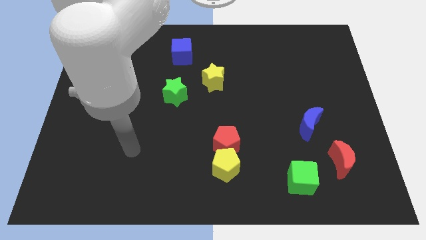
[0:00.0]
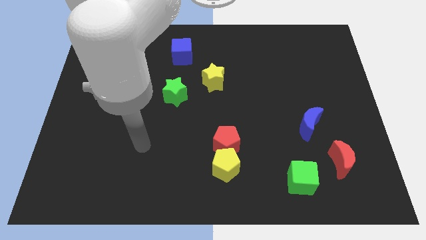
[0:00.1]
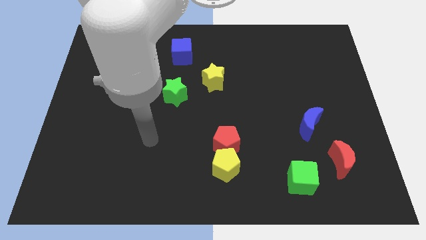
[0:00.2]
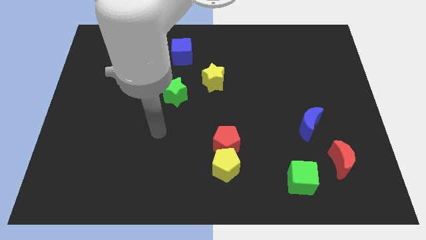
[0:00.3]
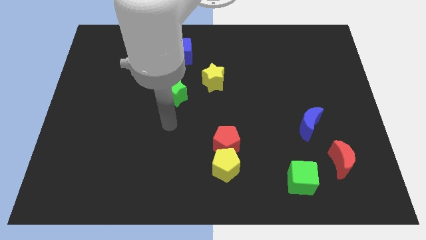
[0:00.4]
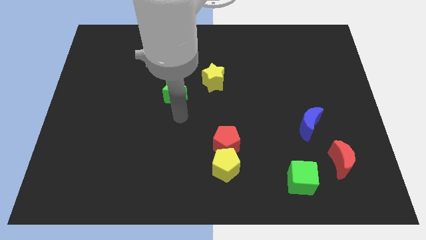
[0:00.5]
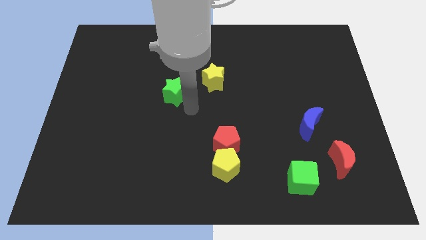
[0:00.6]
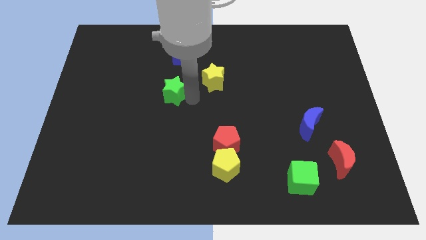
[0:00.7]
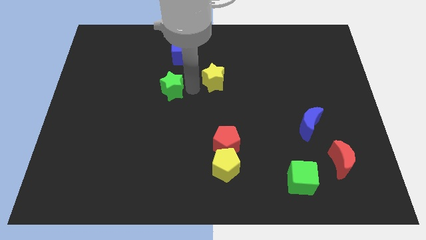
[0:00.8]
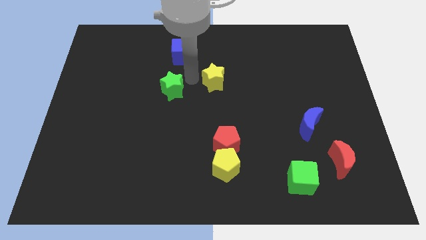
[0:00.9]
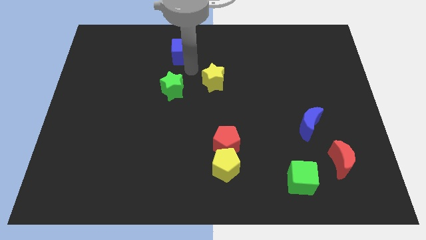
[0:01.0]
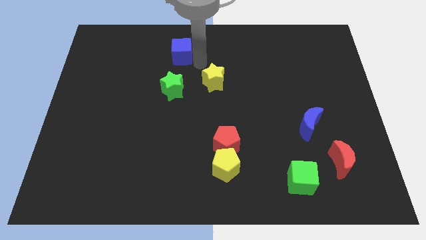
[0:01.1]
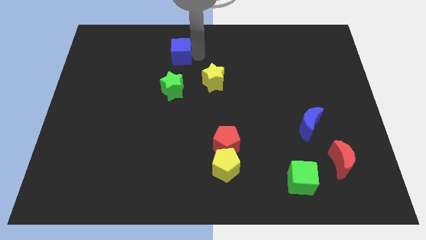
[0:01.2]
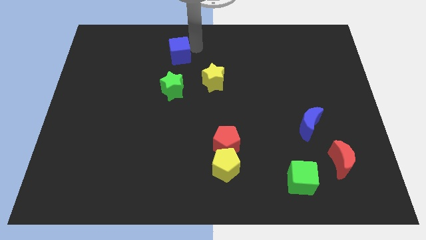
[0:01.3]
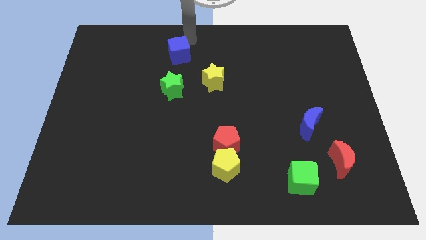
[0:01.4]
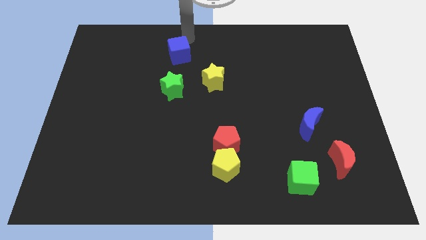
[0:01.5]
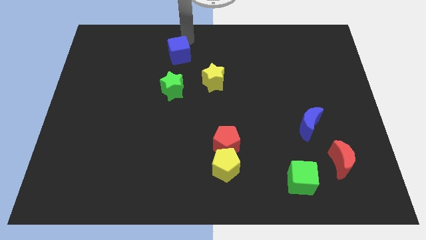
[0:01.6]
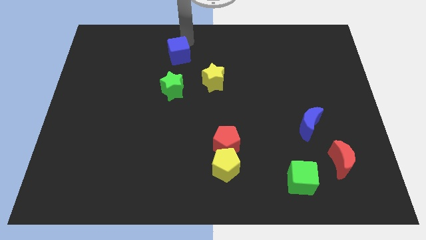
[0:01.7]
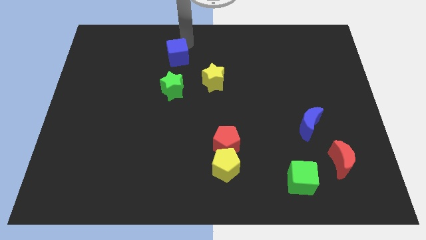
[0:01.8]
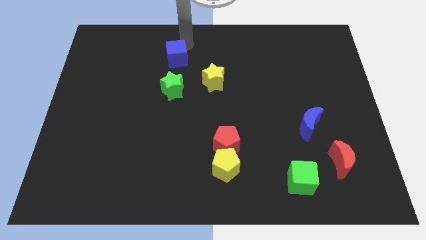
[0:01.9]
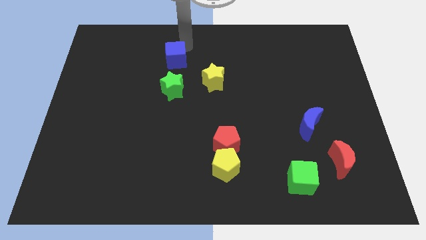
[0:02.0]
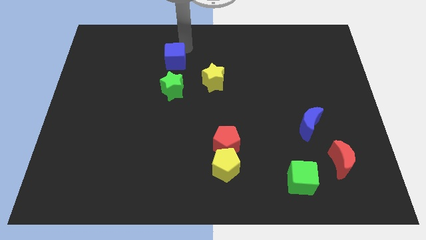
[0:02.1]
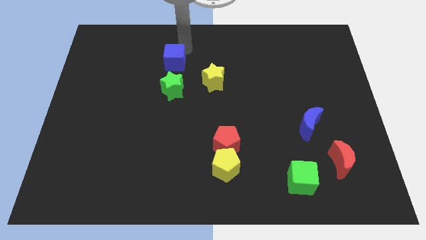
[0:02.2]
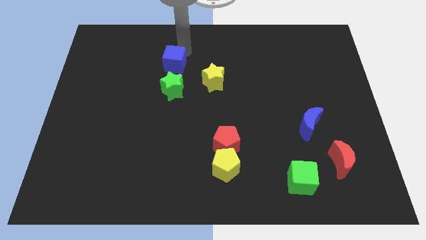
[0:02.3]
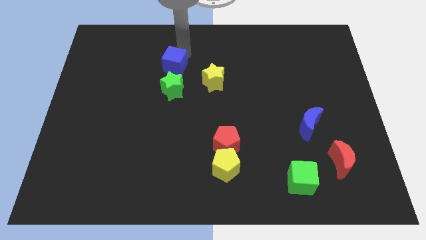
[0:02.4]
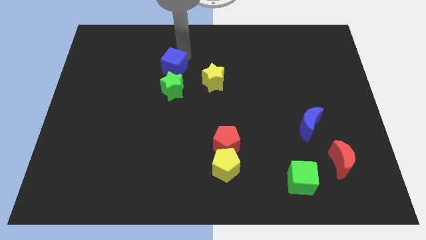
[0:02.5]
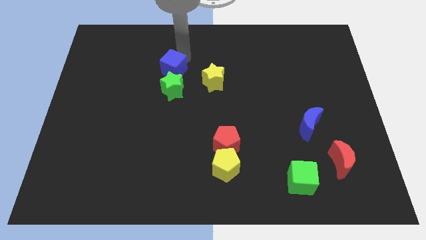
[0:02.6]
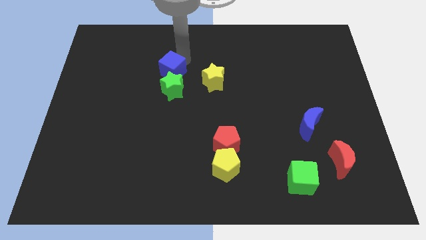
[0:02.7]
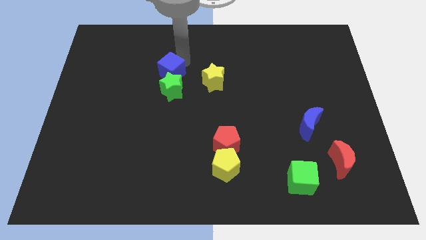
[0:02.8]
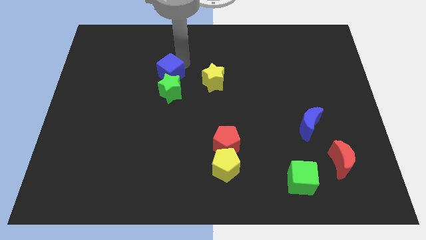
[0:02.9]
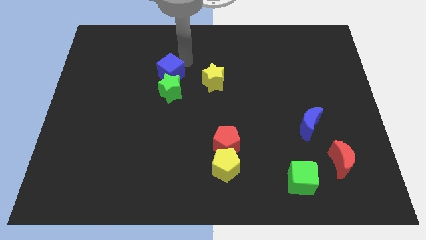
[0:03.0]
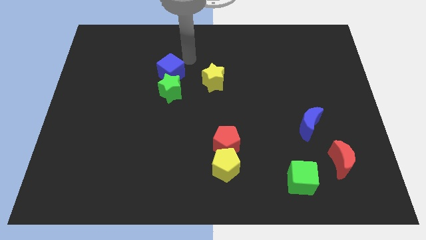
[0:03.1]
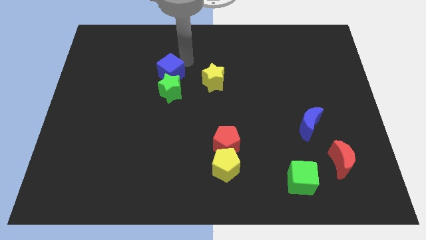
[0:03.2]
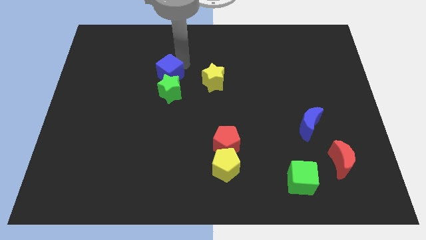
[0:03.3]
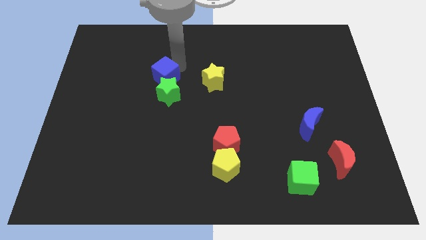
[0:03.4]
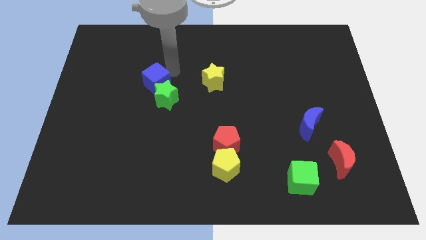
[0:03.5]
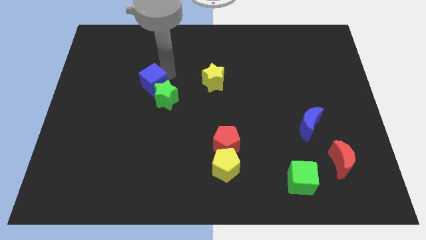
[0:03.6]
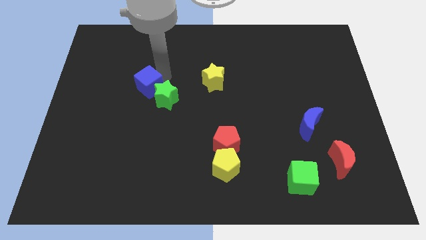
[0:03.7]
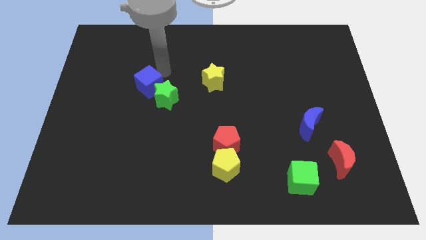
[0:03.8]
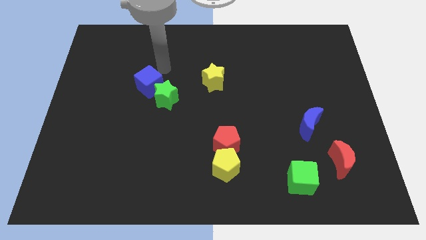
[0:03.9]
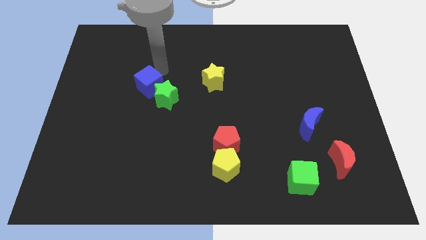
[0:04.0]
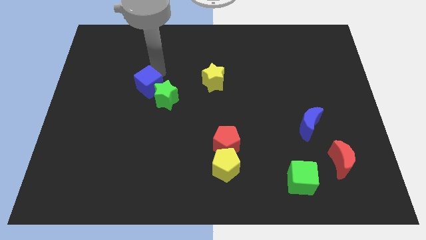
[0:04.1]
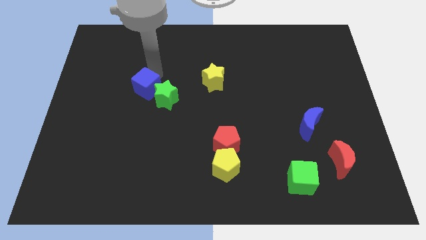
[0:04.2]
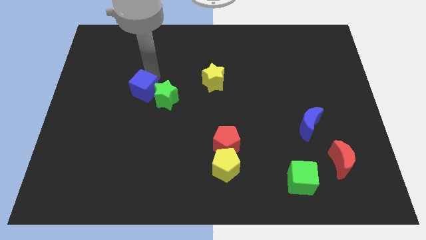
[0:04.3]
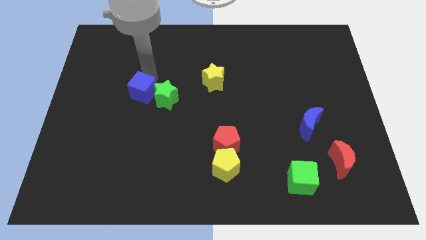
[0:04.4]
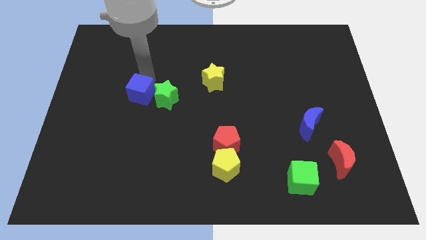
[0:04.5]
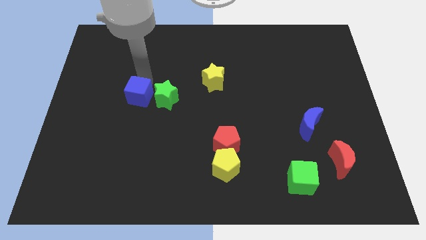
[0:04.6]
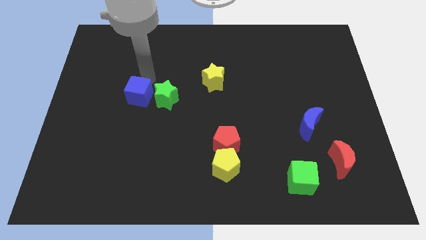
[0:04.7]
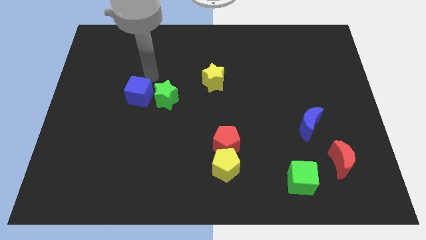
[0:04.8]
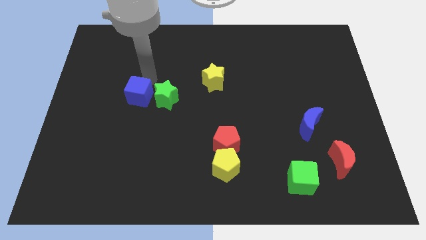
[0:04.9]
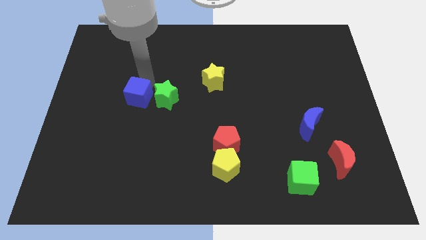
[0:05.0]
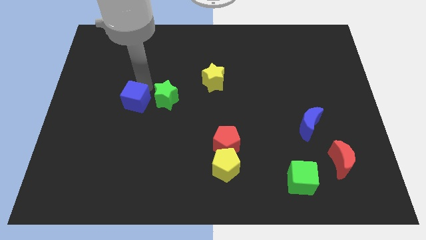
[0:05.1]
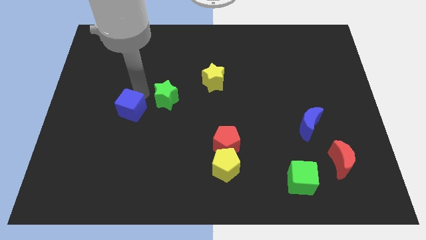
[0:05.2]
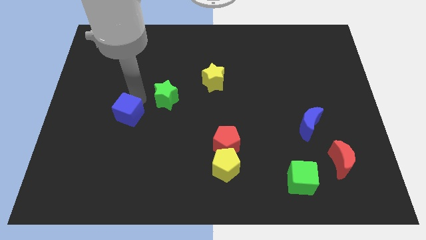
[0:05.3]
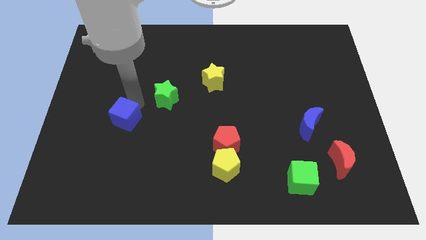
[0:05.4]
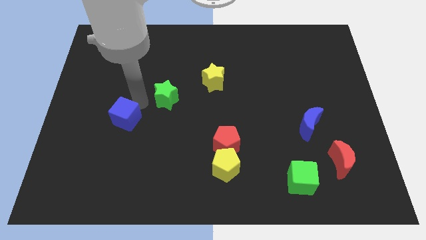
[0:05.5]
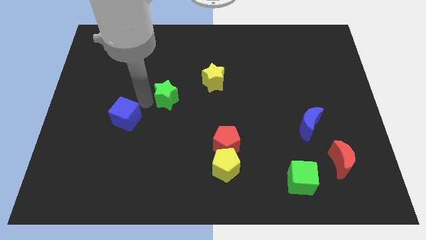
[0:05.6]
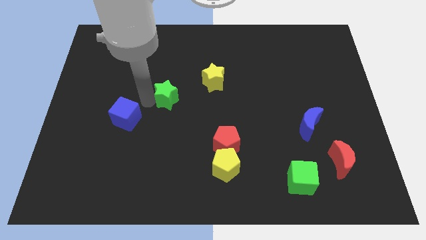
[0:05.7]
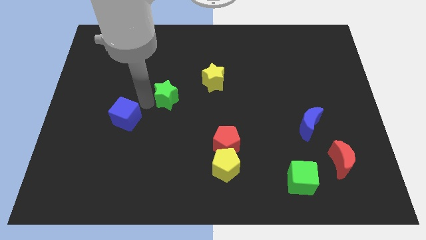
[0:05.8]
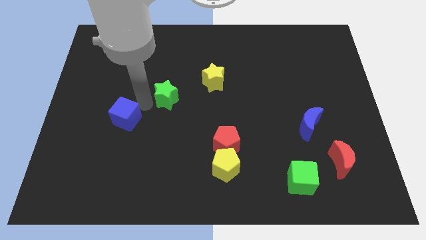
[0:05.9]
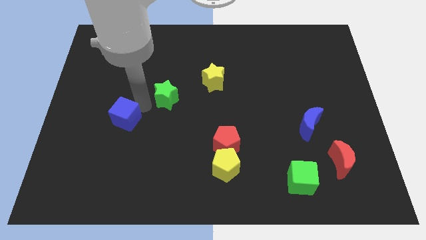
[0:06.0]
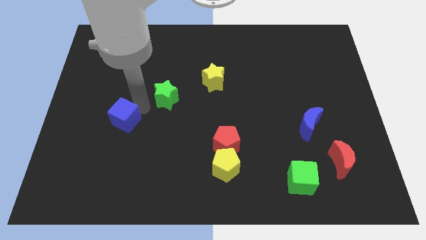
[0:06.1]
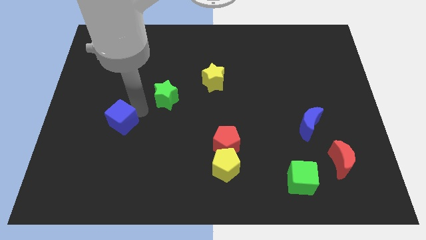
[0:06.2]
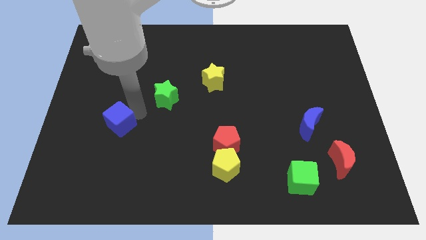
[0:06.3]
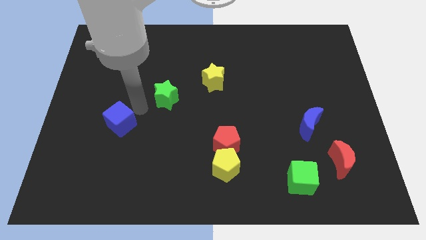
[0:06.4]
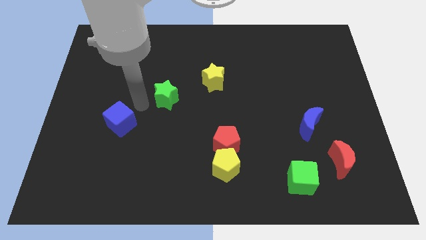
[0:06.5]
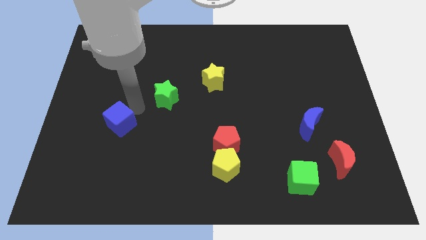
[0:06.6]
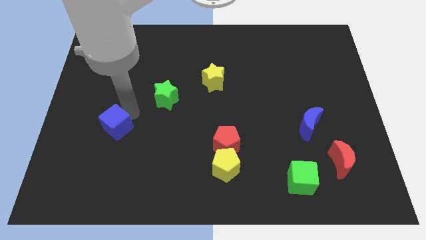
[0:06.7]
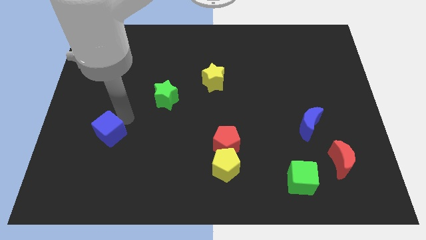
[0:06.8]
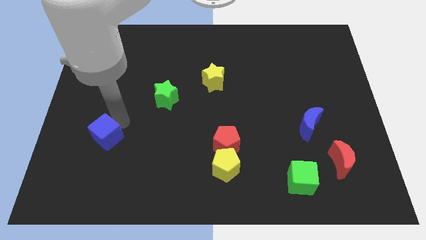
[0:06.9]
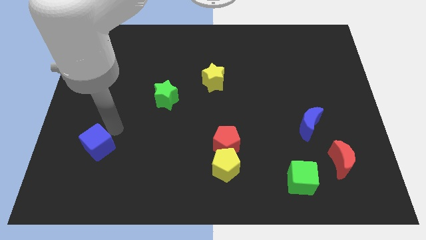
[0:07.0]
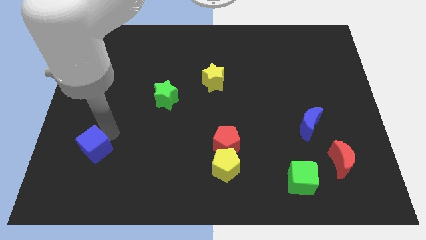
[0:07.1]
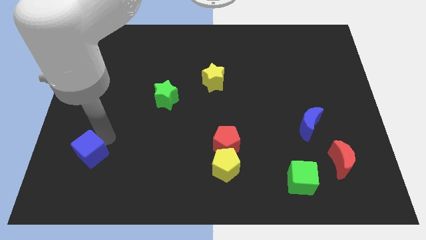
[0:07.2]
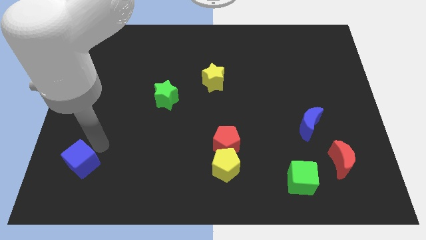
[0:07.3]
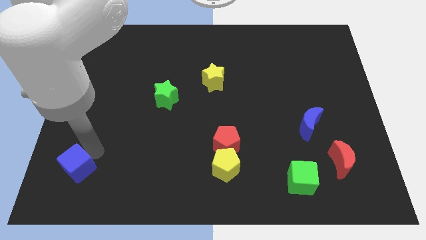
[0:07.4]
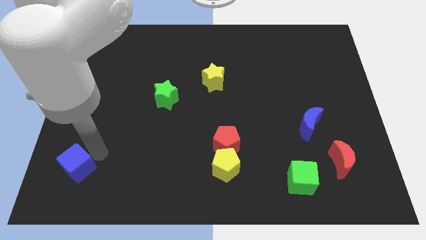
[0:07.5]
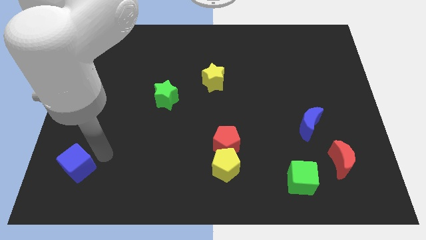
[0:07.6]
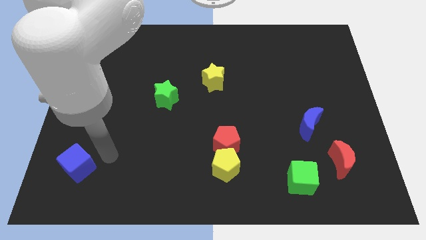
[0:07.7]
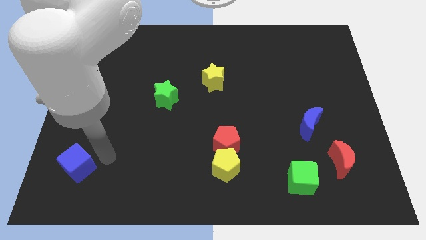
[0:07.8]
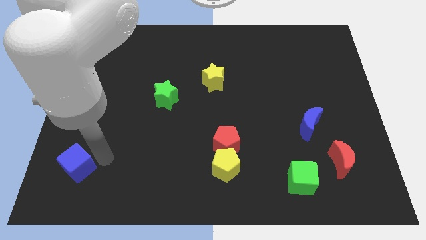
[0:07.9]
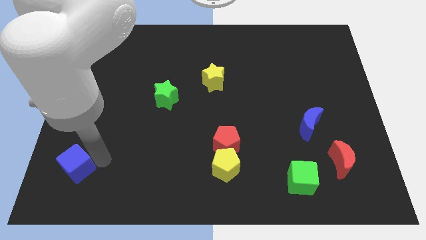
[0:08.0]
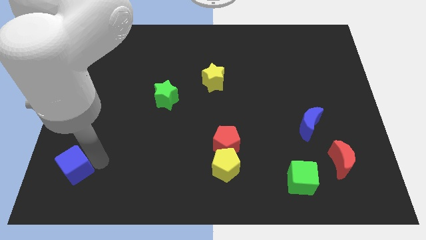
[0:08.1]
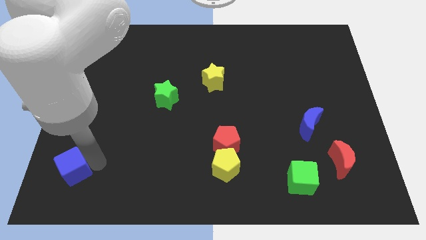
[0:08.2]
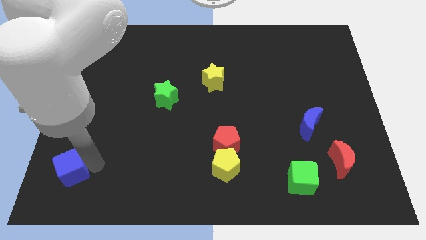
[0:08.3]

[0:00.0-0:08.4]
put the blue cube to the bottom left of the board
